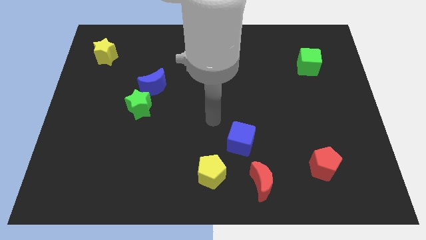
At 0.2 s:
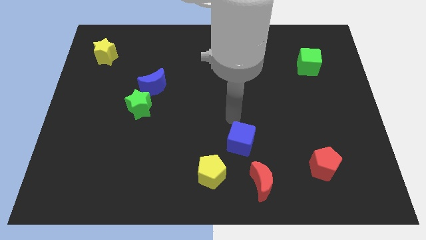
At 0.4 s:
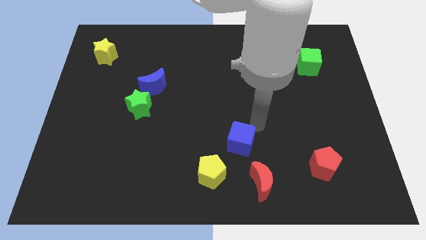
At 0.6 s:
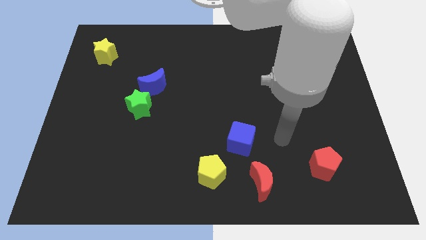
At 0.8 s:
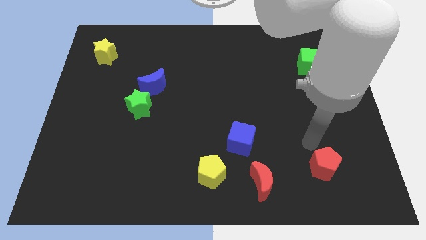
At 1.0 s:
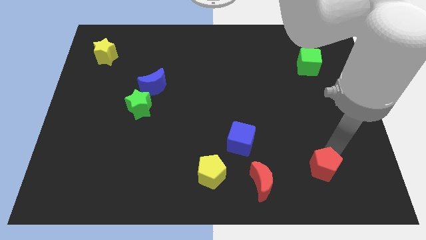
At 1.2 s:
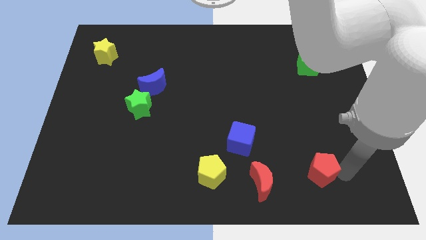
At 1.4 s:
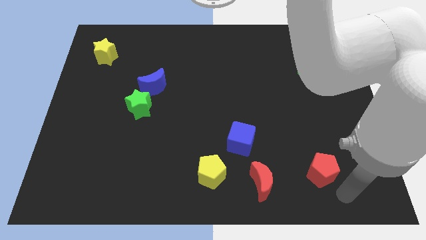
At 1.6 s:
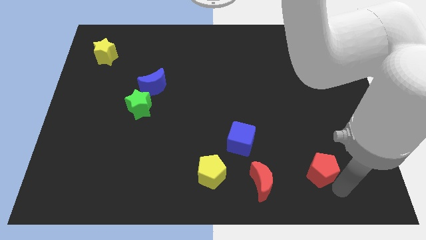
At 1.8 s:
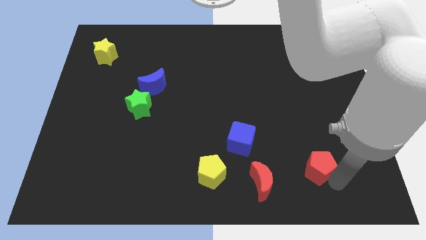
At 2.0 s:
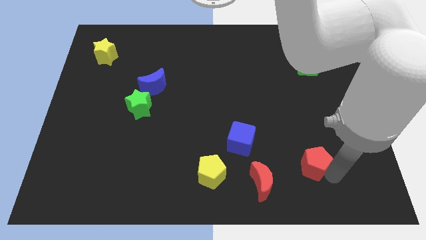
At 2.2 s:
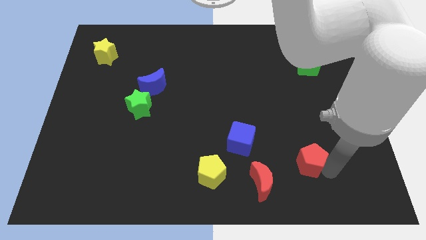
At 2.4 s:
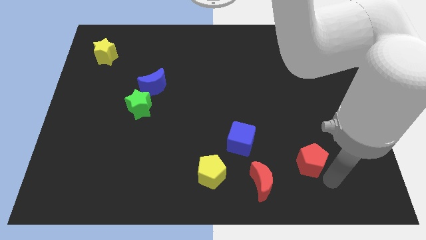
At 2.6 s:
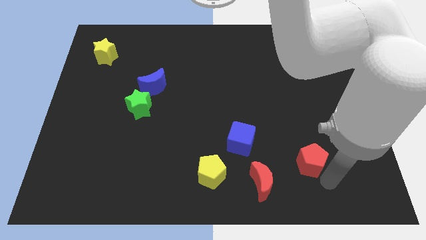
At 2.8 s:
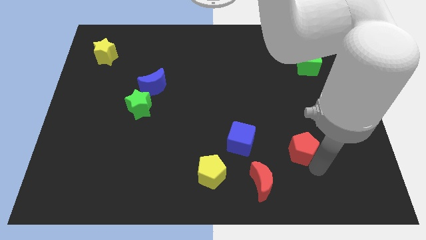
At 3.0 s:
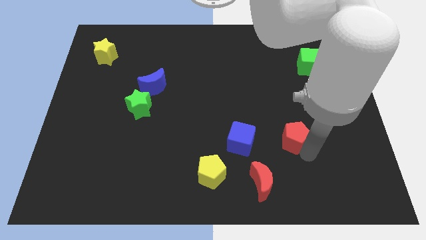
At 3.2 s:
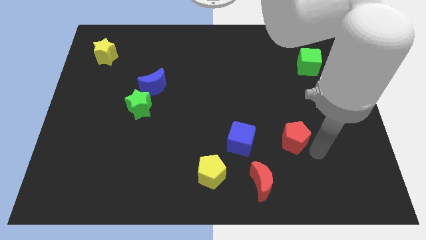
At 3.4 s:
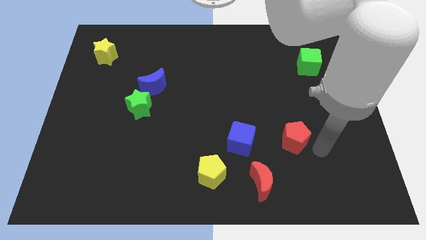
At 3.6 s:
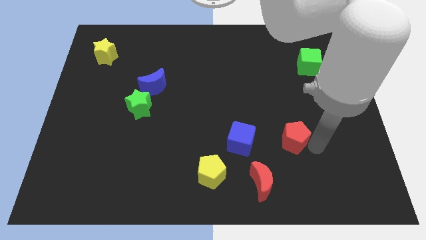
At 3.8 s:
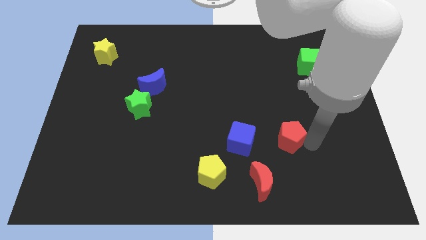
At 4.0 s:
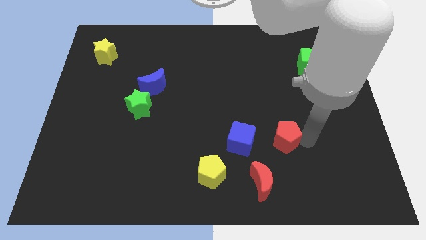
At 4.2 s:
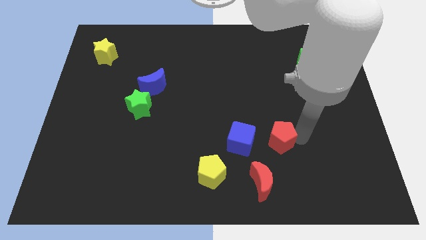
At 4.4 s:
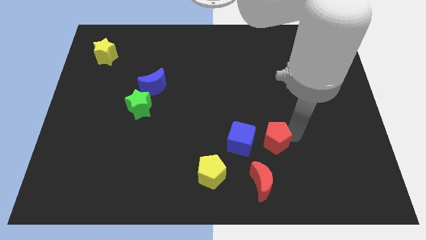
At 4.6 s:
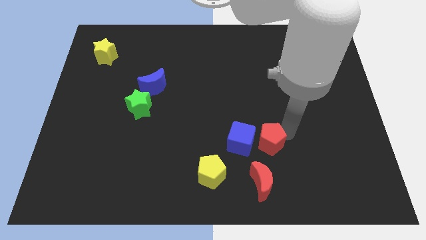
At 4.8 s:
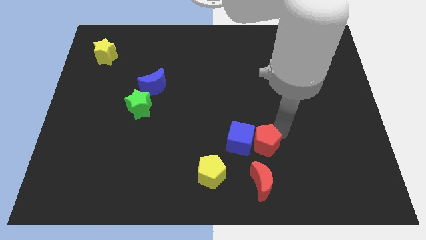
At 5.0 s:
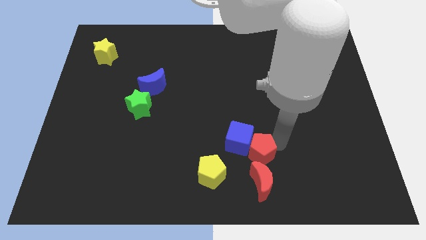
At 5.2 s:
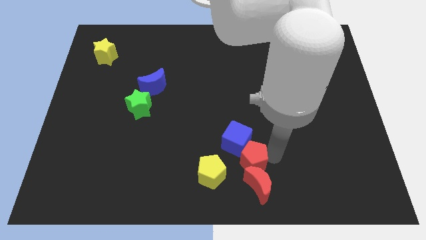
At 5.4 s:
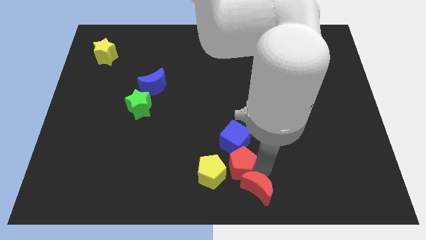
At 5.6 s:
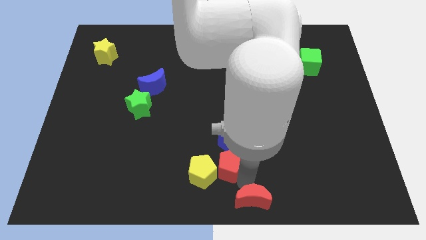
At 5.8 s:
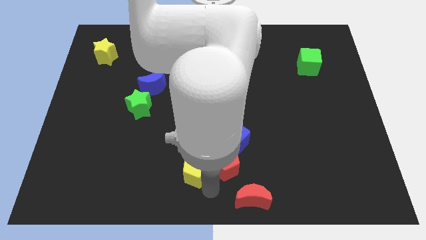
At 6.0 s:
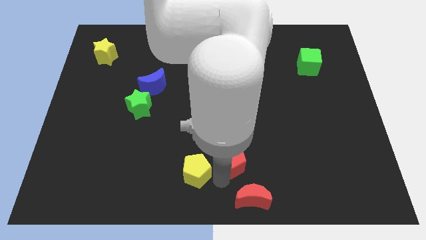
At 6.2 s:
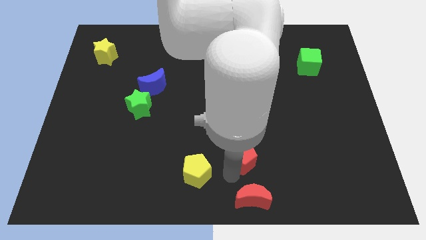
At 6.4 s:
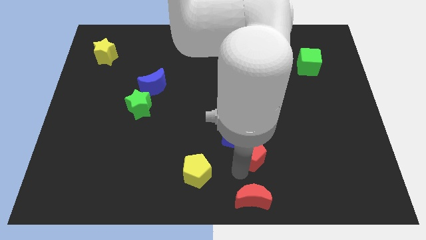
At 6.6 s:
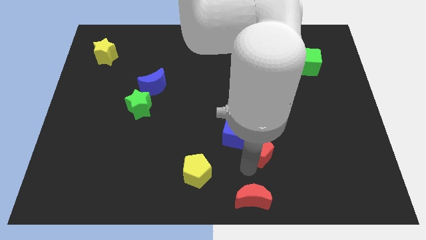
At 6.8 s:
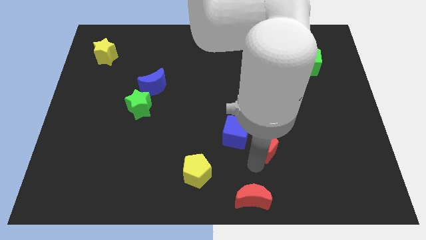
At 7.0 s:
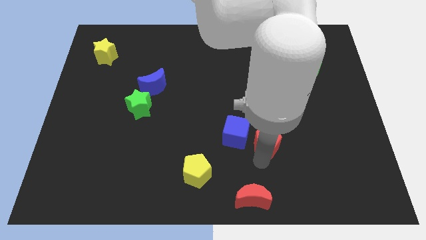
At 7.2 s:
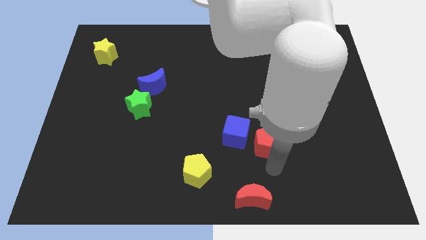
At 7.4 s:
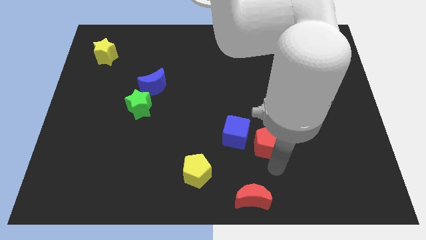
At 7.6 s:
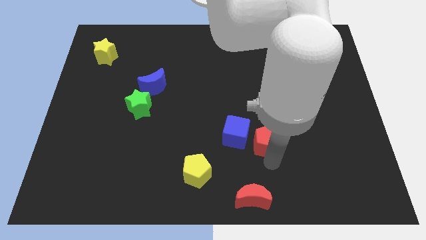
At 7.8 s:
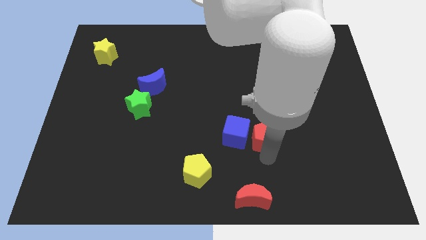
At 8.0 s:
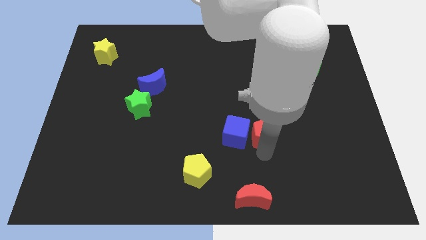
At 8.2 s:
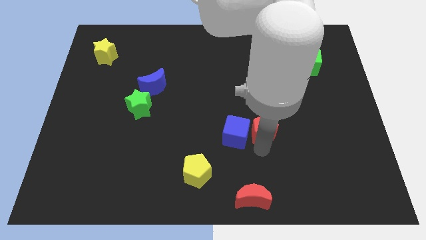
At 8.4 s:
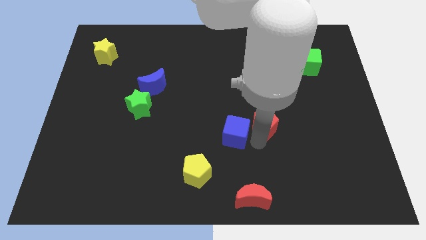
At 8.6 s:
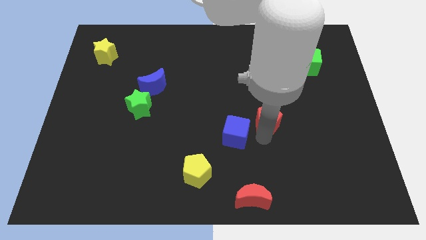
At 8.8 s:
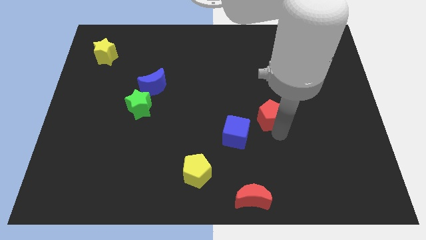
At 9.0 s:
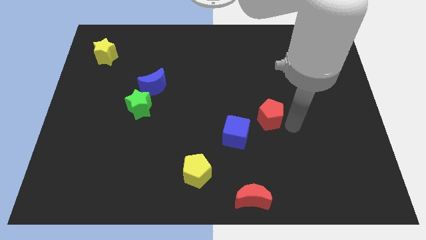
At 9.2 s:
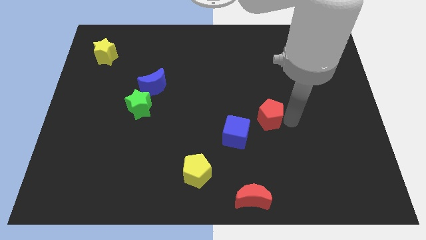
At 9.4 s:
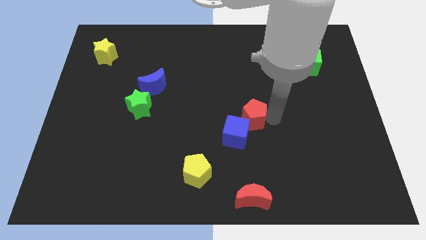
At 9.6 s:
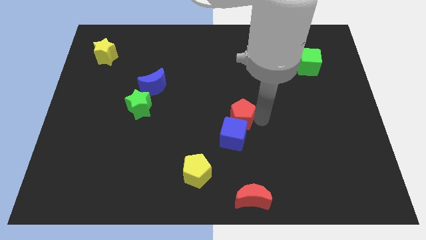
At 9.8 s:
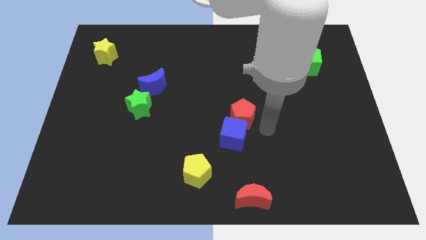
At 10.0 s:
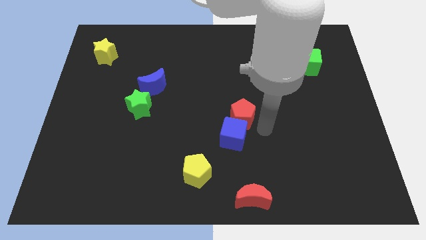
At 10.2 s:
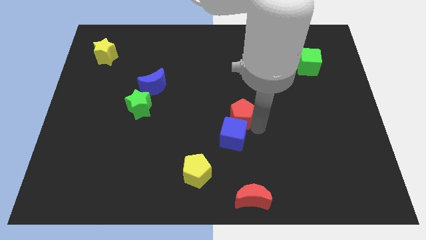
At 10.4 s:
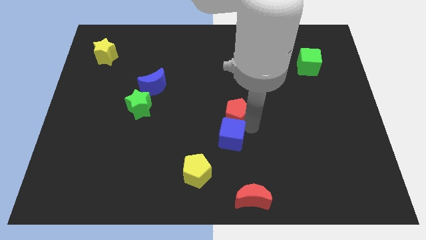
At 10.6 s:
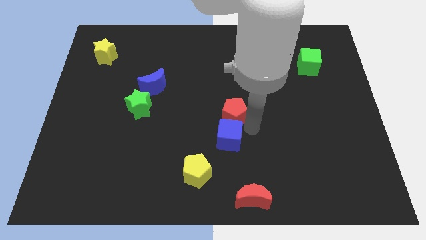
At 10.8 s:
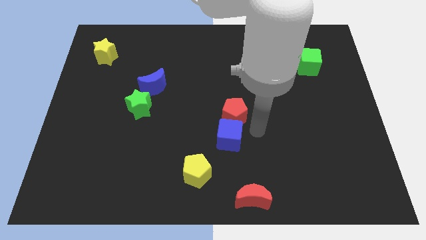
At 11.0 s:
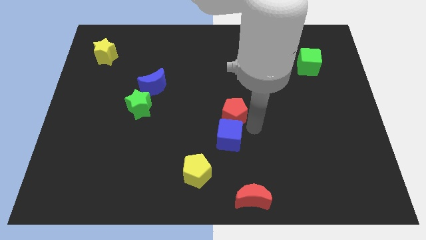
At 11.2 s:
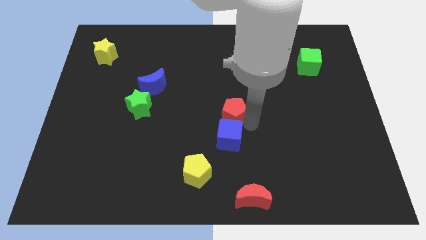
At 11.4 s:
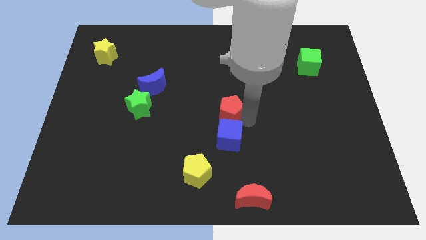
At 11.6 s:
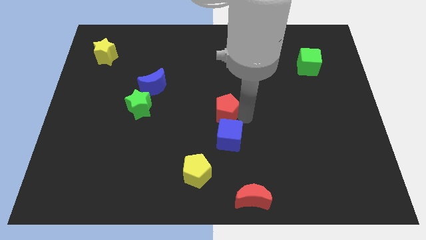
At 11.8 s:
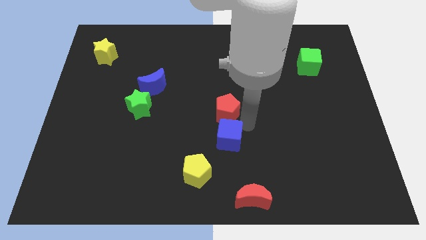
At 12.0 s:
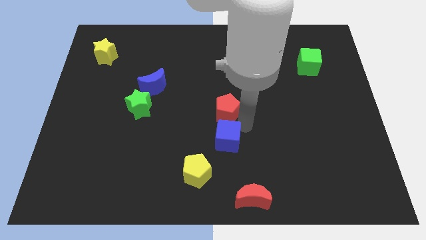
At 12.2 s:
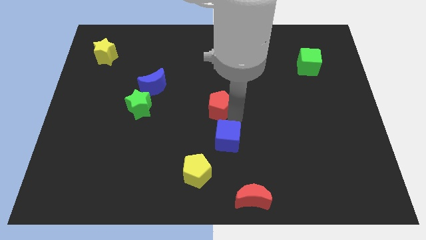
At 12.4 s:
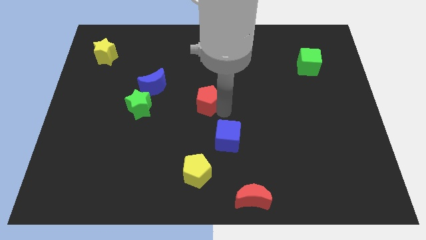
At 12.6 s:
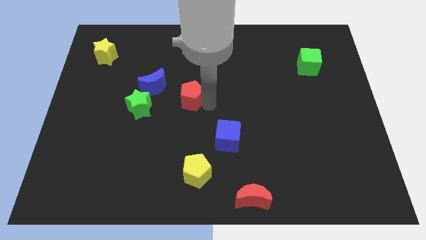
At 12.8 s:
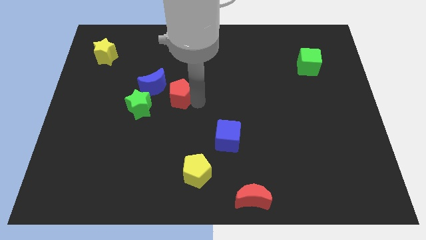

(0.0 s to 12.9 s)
push the red pentagon to the top right side of the green star
